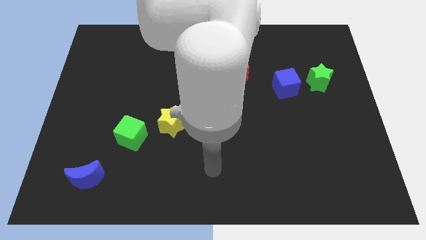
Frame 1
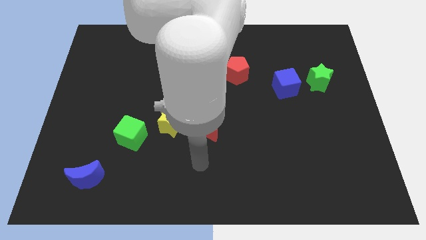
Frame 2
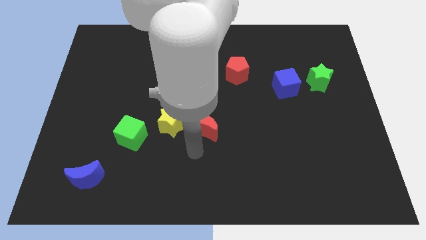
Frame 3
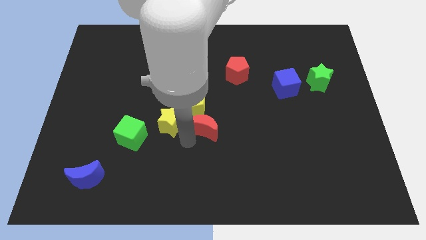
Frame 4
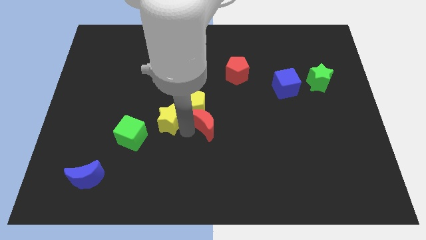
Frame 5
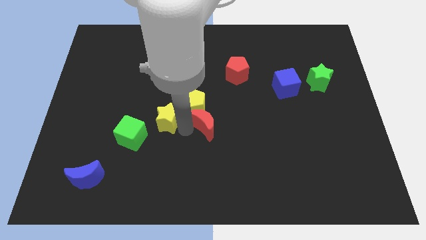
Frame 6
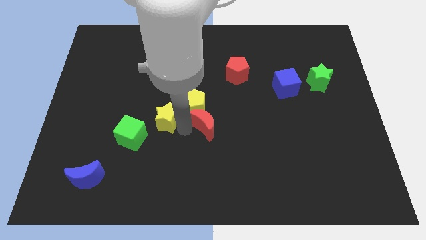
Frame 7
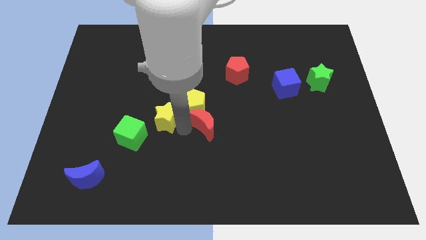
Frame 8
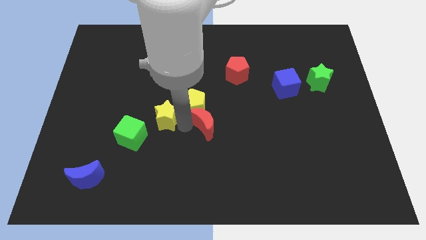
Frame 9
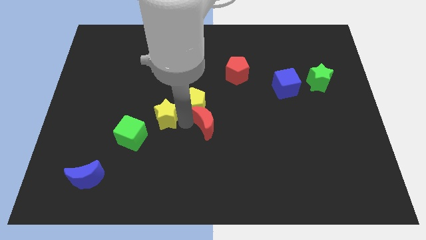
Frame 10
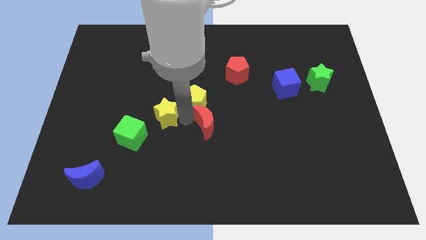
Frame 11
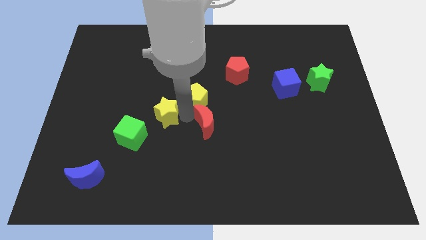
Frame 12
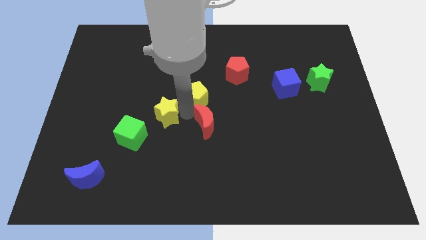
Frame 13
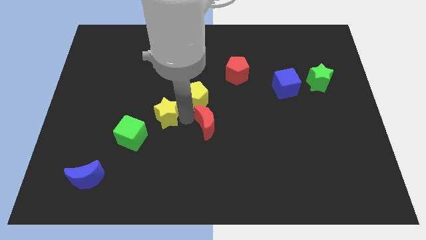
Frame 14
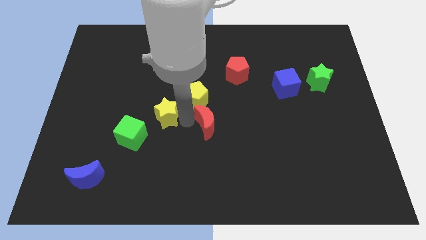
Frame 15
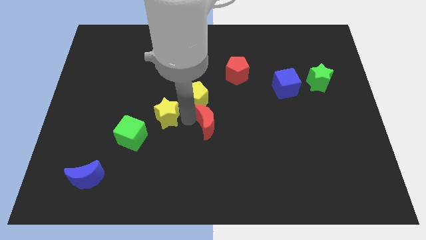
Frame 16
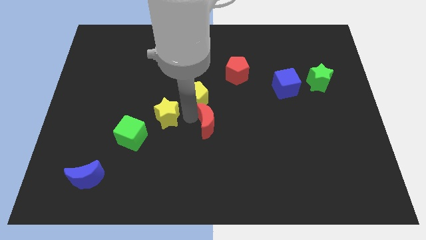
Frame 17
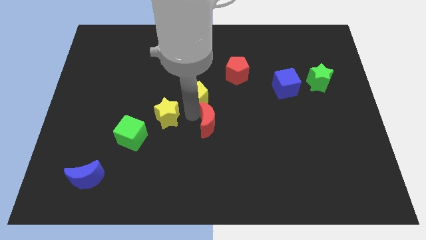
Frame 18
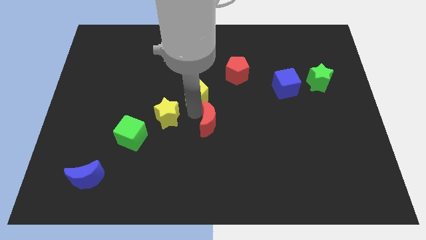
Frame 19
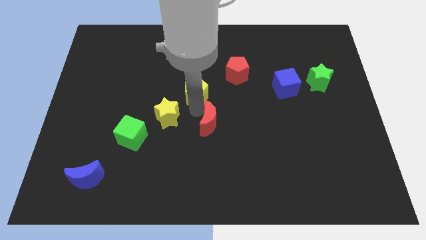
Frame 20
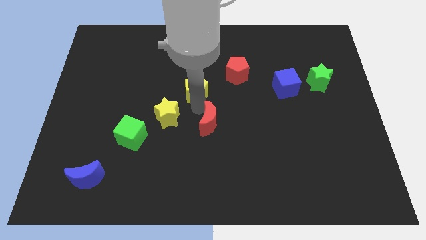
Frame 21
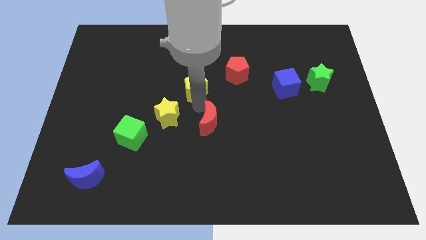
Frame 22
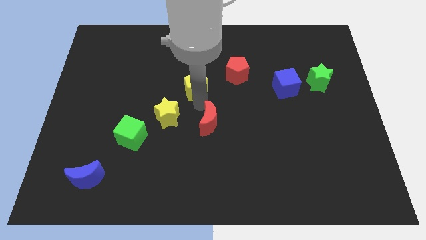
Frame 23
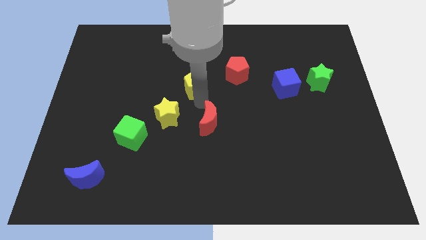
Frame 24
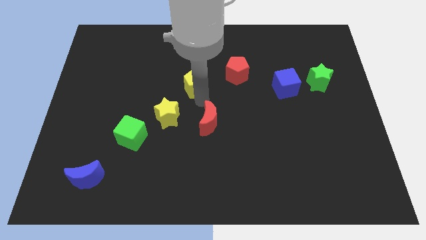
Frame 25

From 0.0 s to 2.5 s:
separate the yellow pentagon from the red moon and yellow star

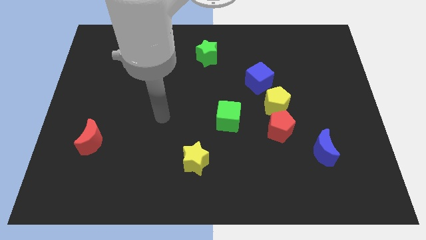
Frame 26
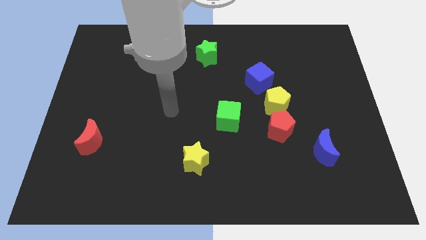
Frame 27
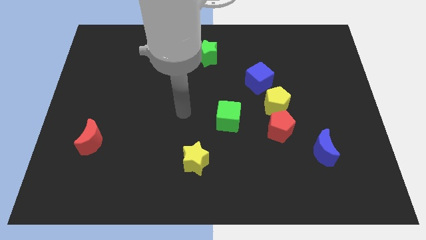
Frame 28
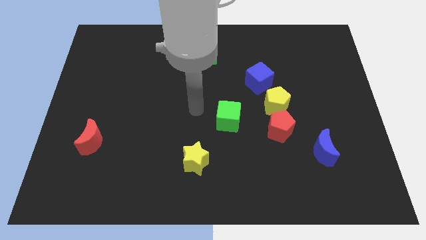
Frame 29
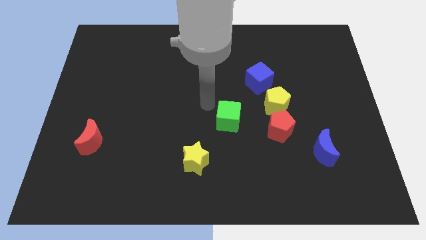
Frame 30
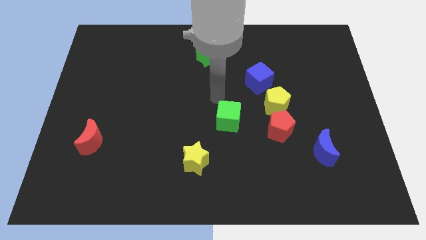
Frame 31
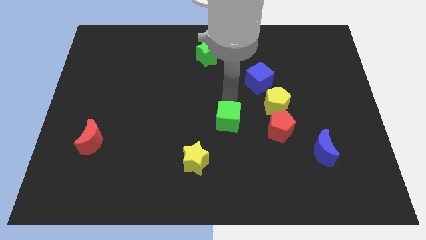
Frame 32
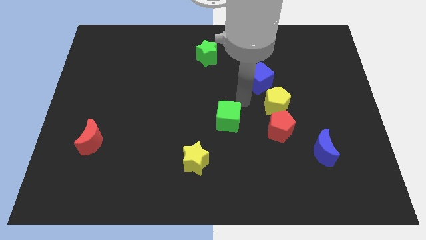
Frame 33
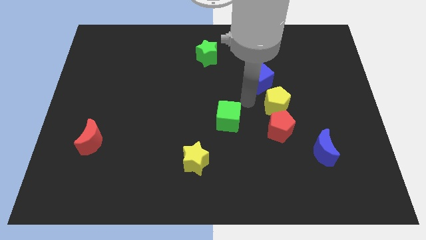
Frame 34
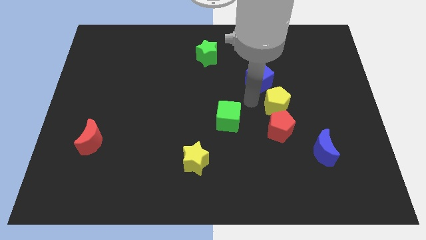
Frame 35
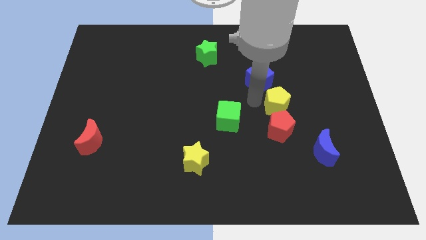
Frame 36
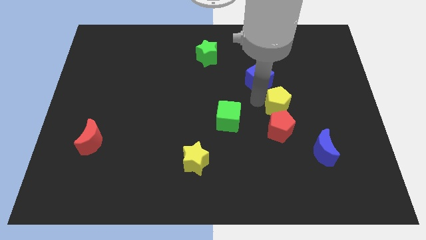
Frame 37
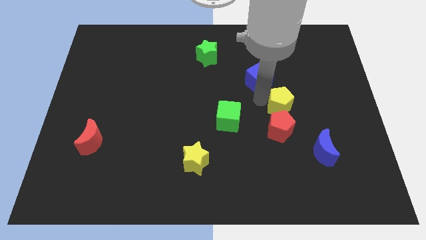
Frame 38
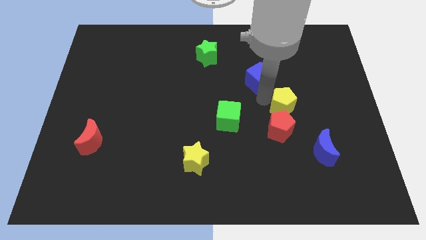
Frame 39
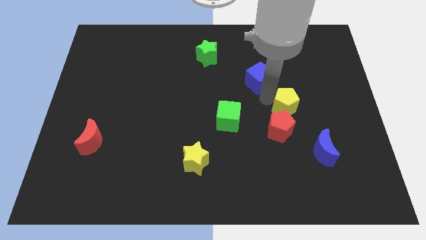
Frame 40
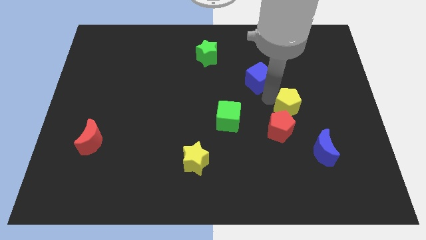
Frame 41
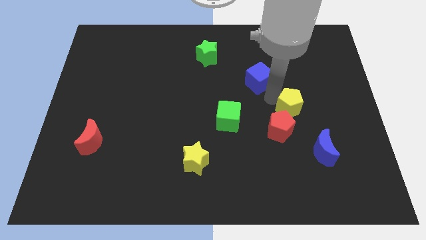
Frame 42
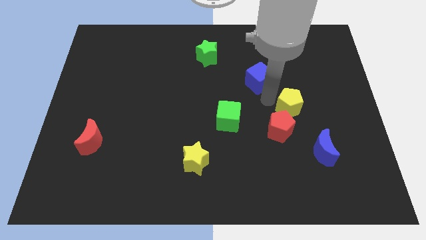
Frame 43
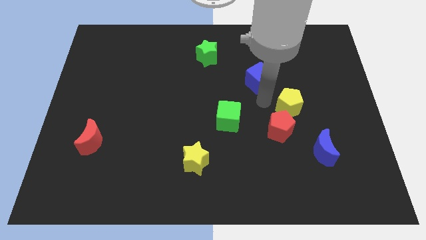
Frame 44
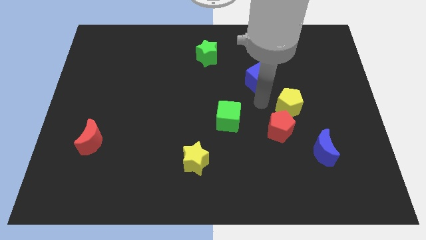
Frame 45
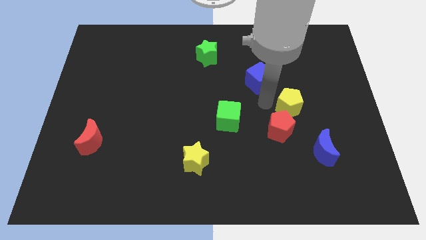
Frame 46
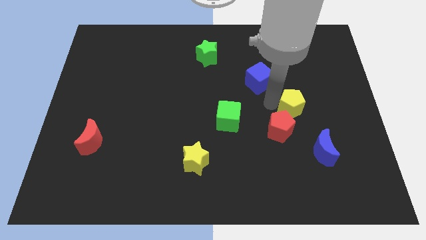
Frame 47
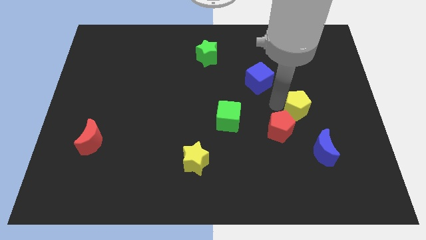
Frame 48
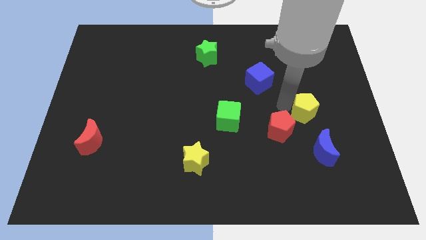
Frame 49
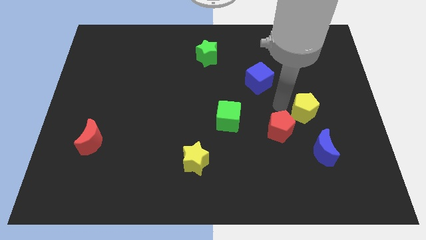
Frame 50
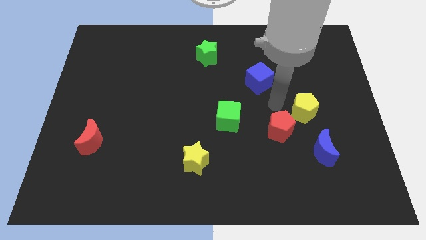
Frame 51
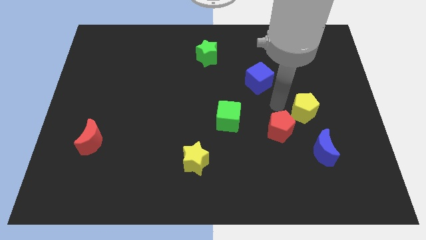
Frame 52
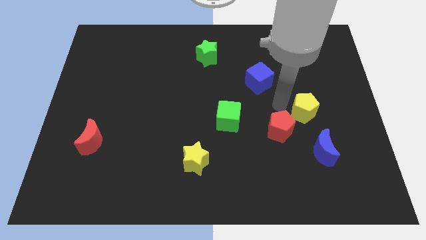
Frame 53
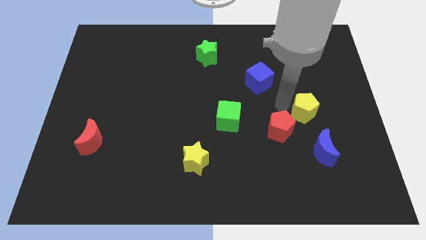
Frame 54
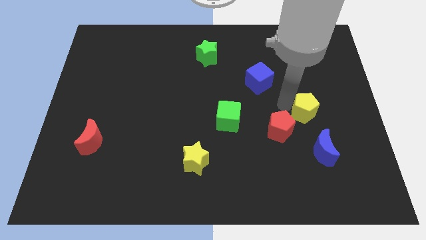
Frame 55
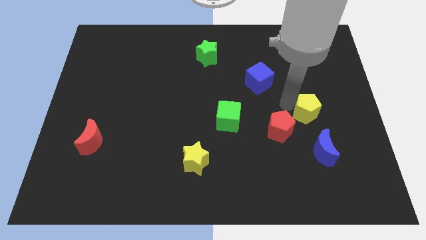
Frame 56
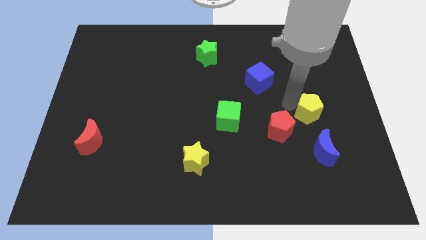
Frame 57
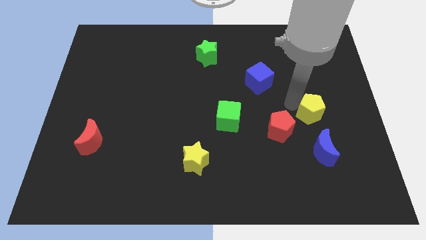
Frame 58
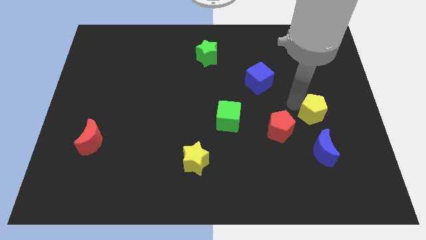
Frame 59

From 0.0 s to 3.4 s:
pull the yellow pentagon apart from the red pentagon and blue cube

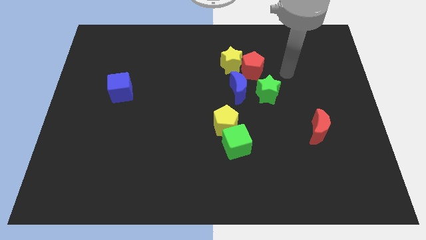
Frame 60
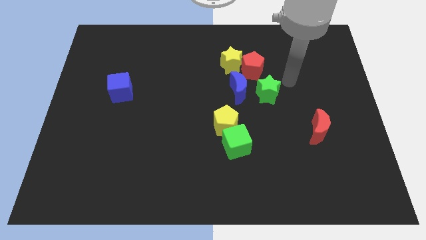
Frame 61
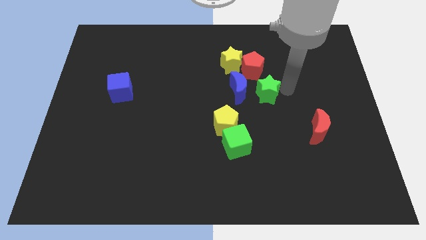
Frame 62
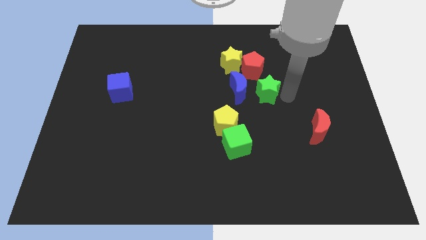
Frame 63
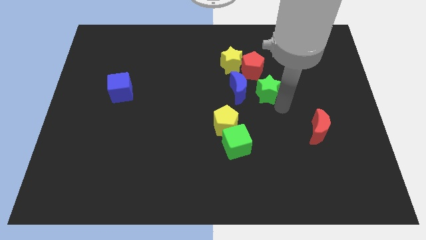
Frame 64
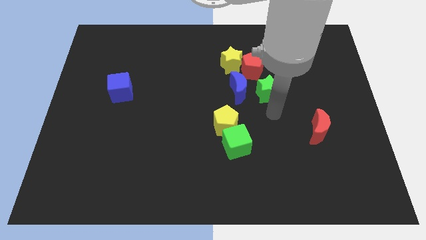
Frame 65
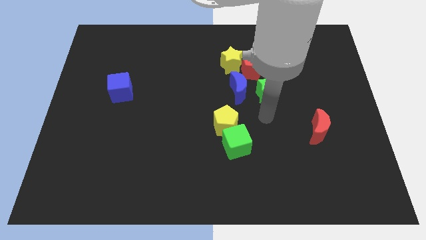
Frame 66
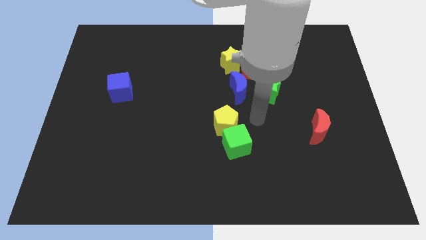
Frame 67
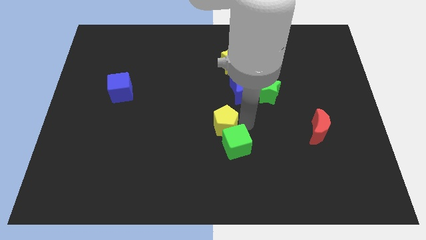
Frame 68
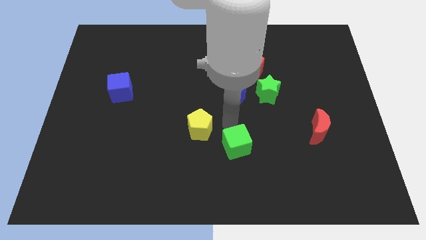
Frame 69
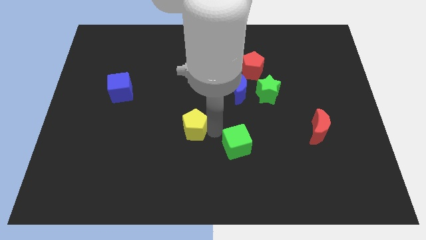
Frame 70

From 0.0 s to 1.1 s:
pull the green cube apart from the yellow pentagon

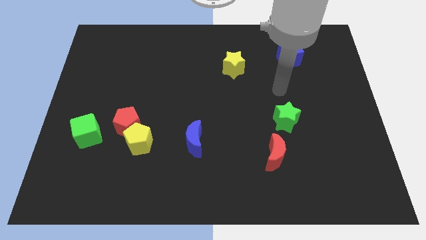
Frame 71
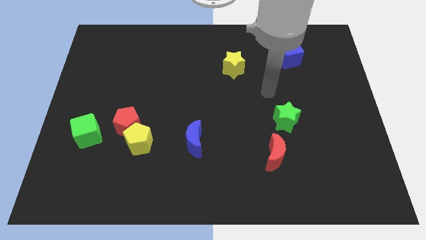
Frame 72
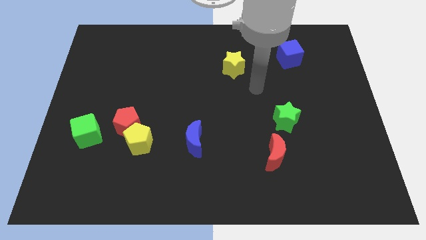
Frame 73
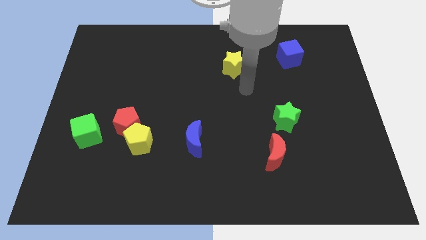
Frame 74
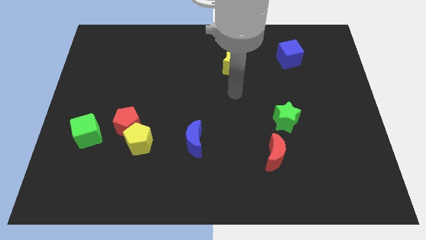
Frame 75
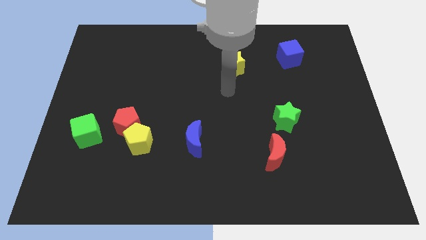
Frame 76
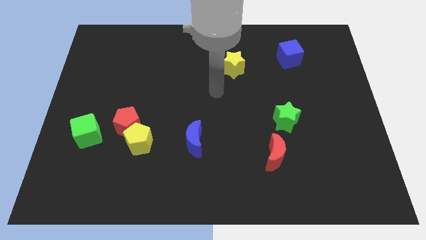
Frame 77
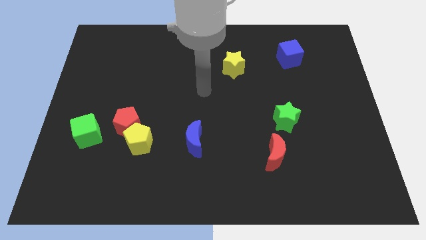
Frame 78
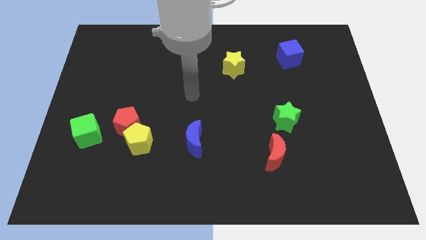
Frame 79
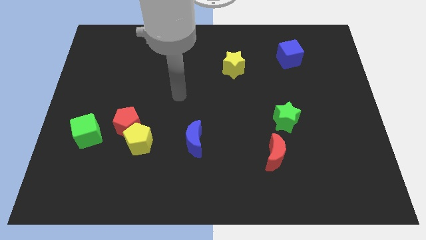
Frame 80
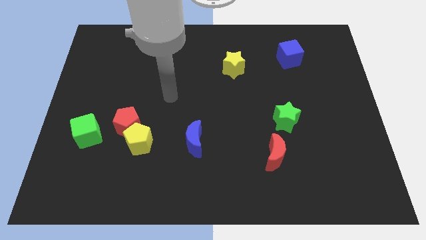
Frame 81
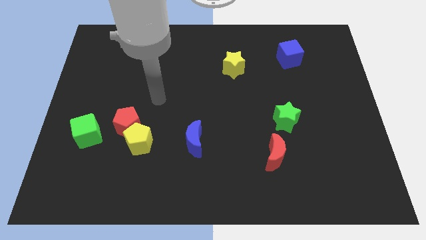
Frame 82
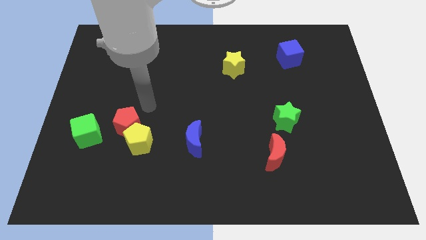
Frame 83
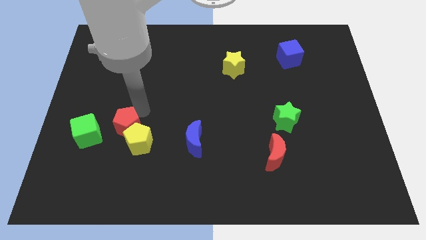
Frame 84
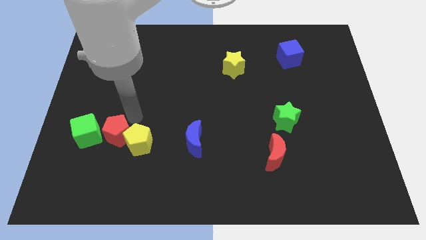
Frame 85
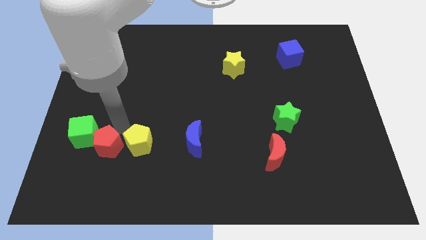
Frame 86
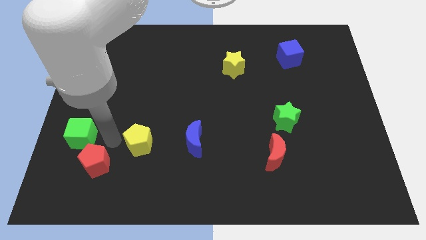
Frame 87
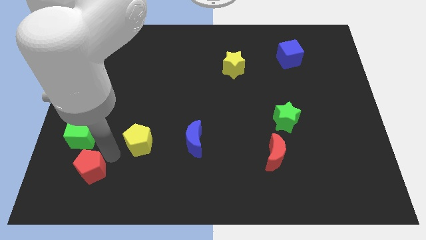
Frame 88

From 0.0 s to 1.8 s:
move the yellow pentagon away from the red pentagon

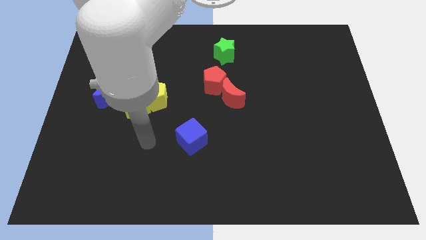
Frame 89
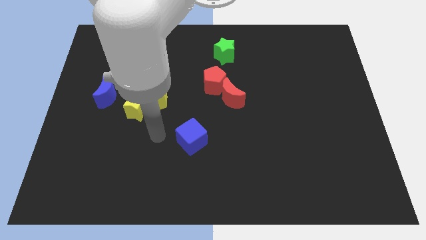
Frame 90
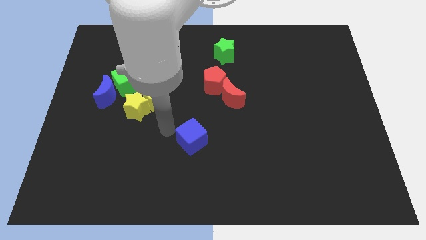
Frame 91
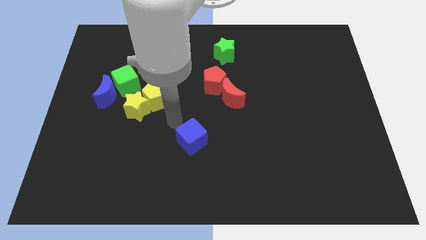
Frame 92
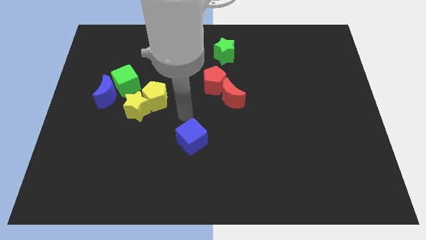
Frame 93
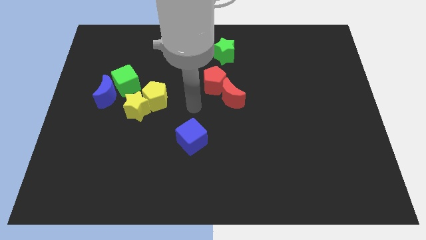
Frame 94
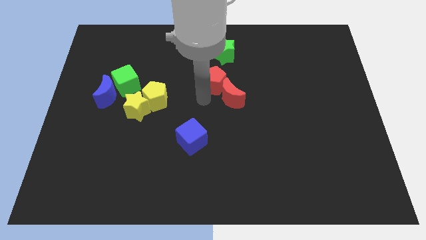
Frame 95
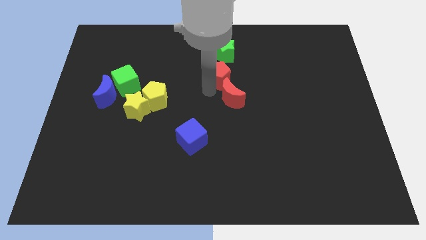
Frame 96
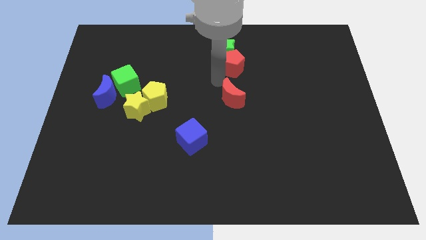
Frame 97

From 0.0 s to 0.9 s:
separate the red moon from the red pentagon
